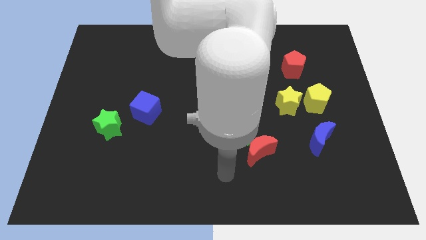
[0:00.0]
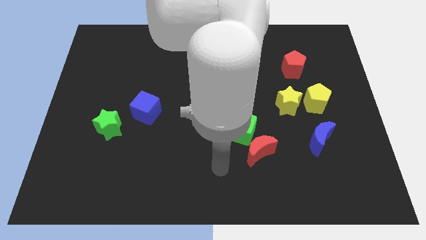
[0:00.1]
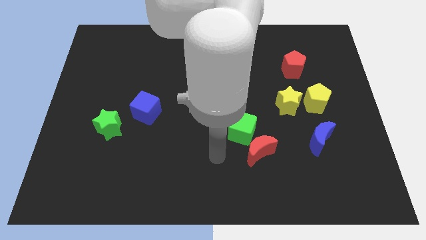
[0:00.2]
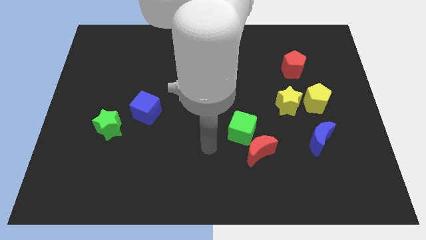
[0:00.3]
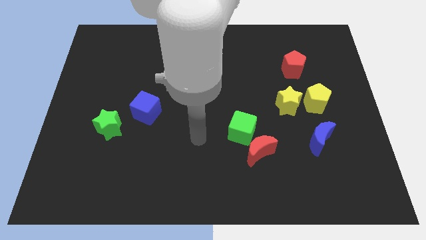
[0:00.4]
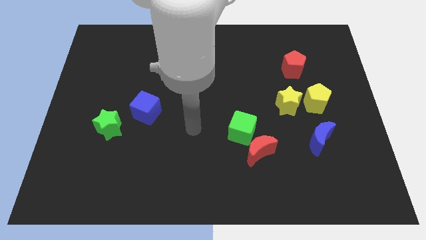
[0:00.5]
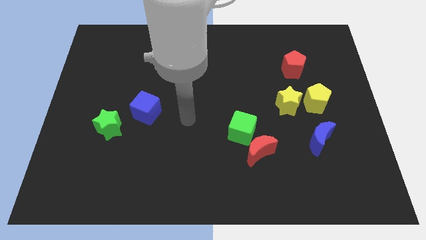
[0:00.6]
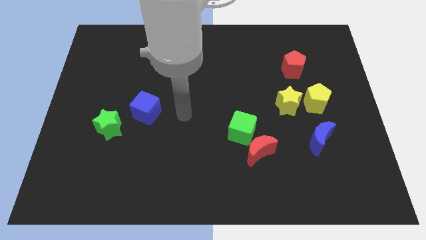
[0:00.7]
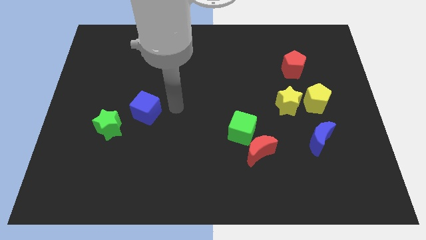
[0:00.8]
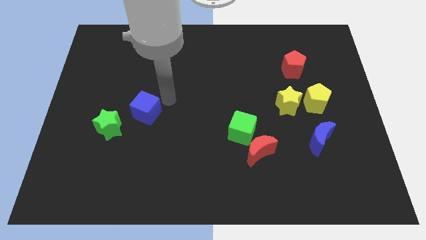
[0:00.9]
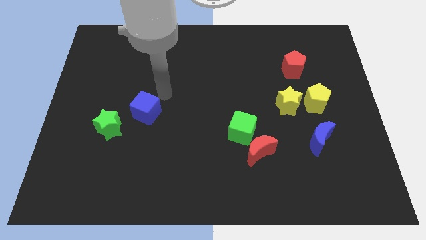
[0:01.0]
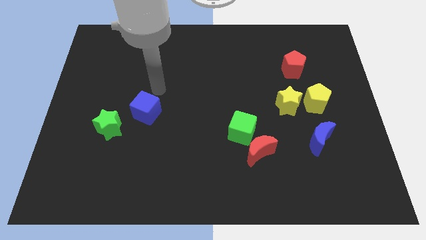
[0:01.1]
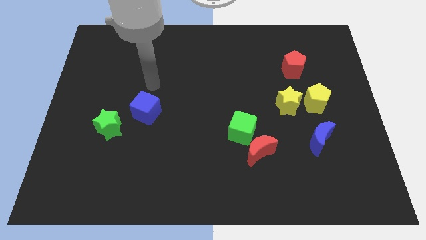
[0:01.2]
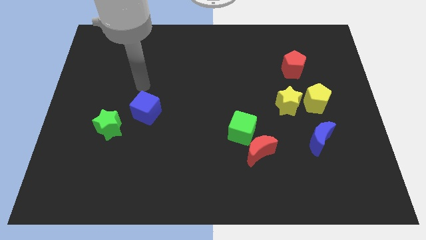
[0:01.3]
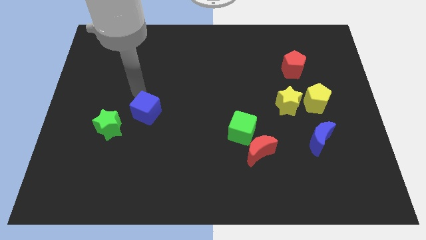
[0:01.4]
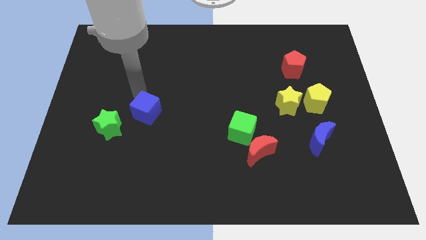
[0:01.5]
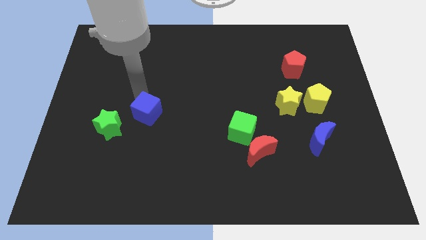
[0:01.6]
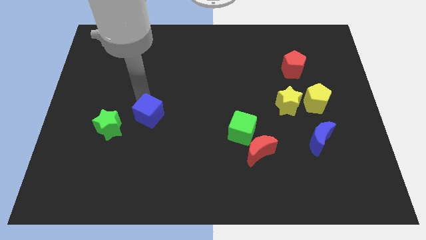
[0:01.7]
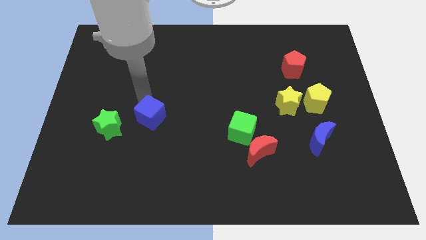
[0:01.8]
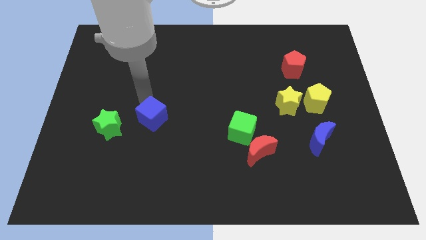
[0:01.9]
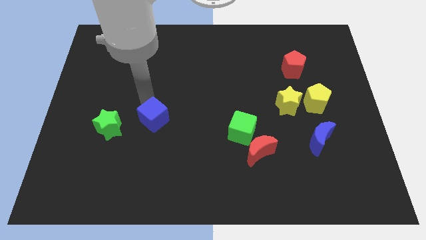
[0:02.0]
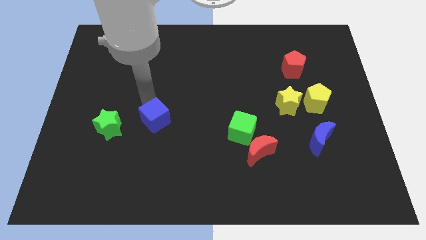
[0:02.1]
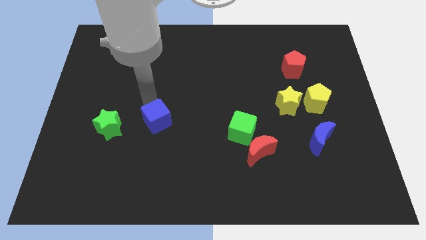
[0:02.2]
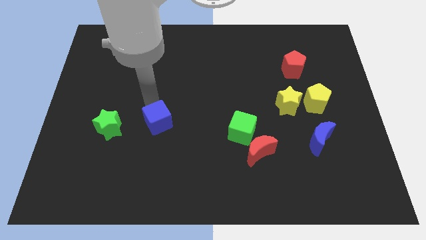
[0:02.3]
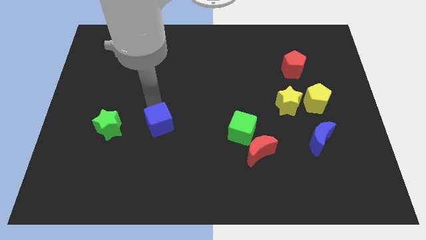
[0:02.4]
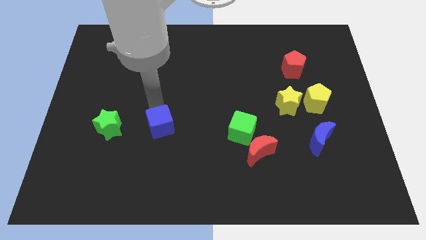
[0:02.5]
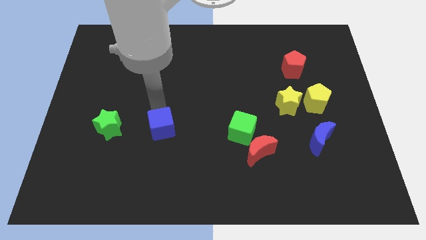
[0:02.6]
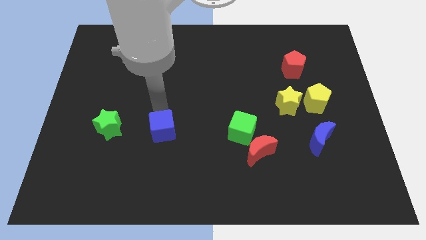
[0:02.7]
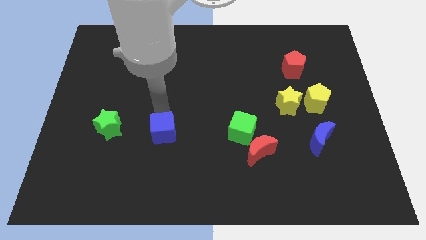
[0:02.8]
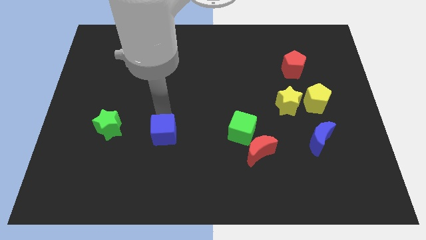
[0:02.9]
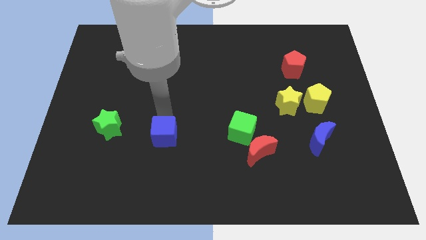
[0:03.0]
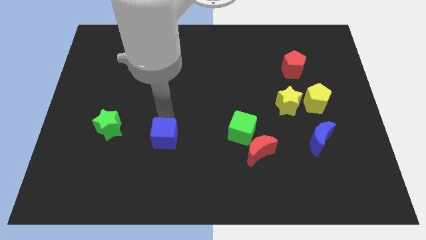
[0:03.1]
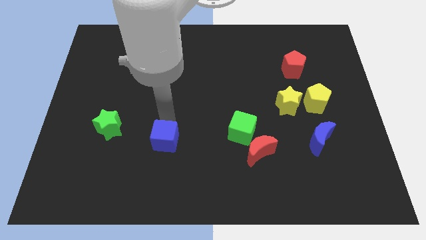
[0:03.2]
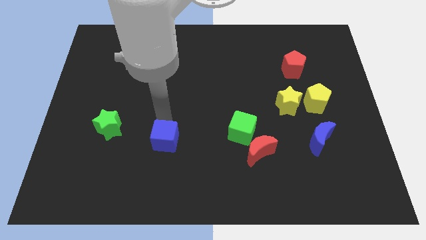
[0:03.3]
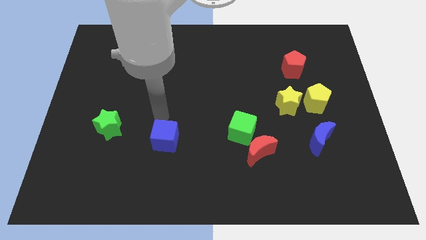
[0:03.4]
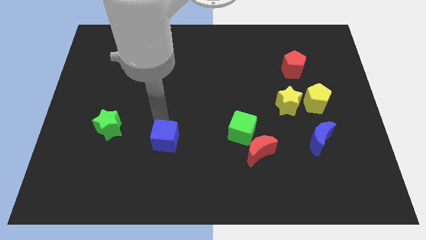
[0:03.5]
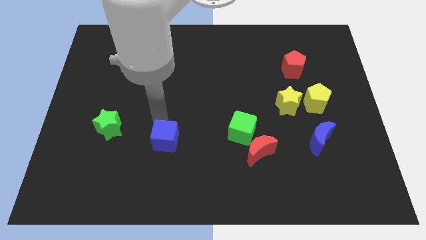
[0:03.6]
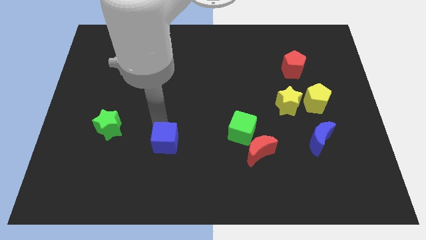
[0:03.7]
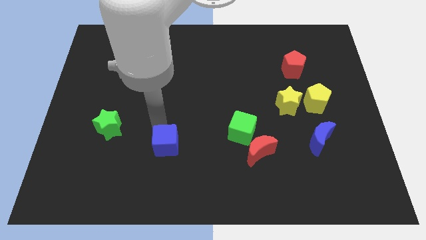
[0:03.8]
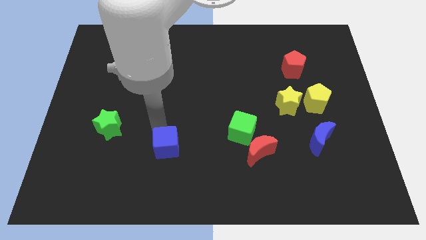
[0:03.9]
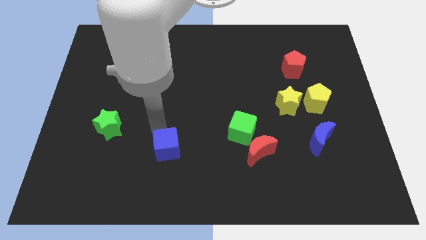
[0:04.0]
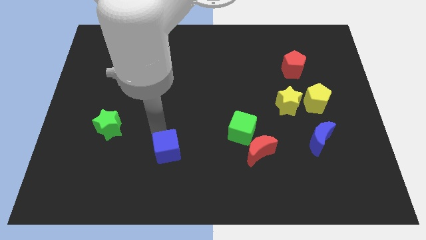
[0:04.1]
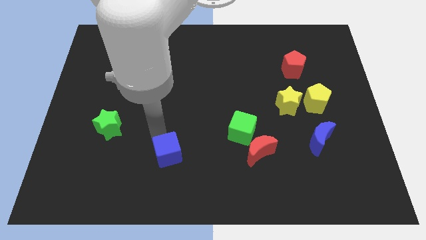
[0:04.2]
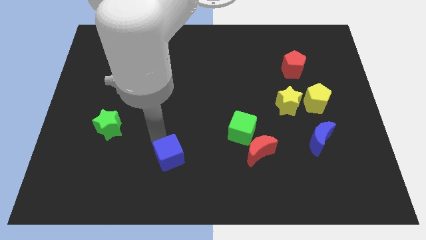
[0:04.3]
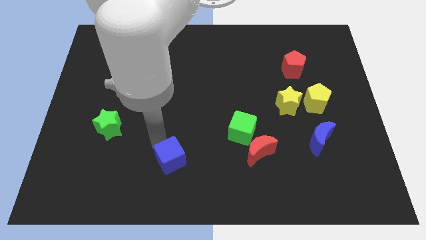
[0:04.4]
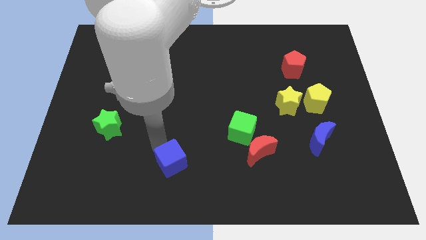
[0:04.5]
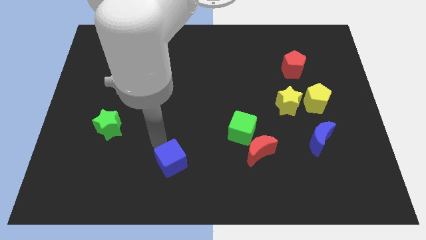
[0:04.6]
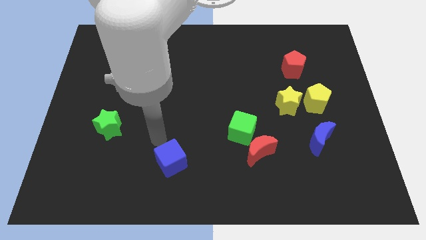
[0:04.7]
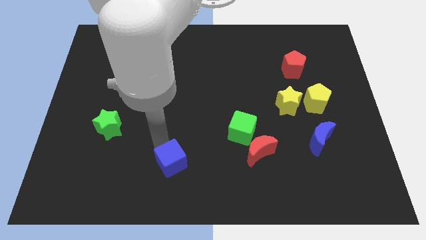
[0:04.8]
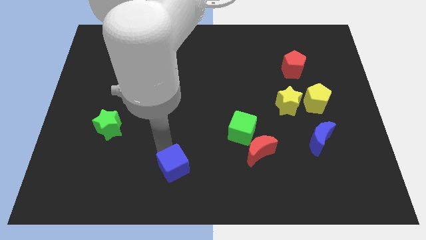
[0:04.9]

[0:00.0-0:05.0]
move the blue cube to the bottom side

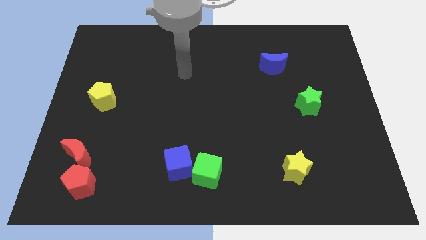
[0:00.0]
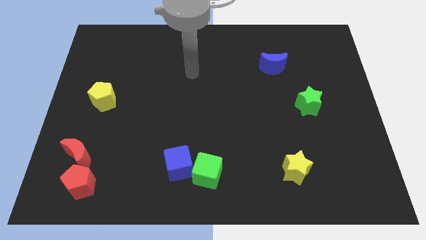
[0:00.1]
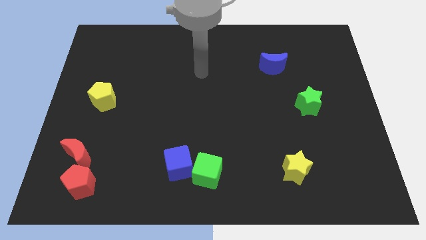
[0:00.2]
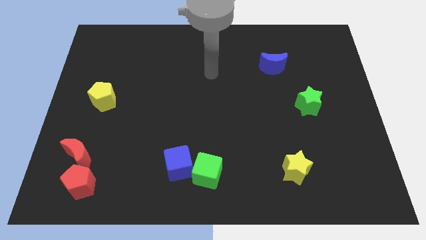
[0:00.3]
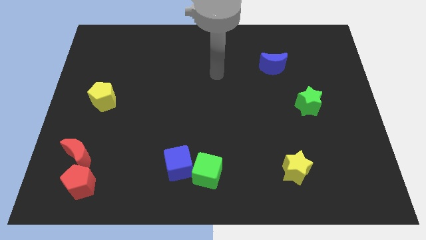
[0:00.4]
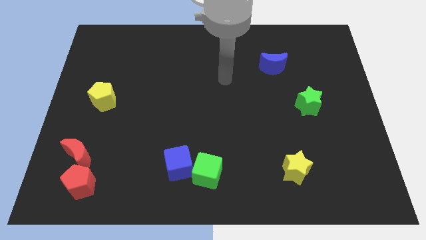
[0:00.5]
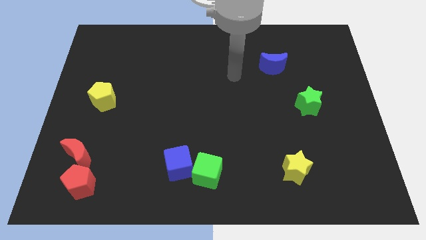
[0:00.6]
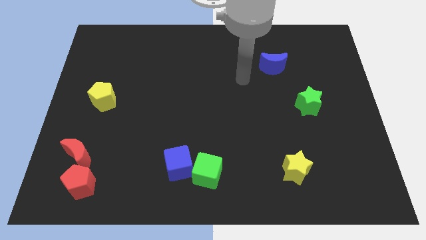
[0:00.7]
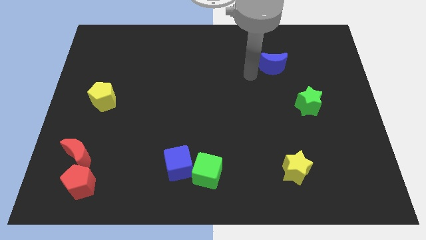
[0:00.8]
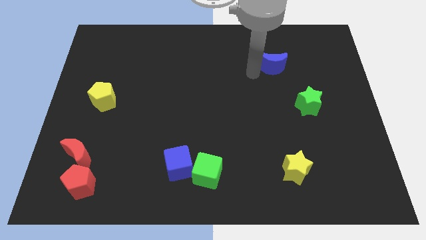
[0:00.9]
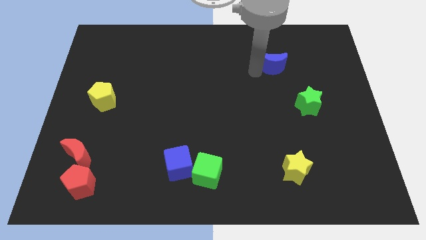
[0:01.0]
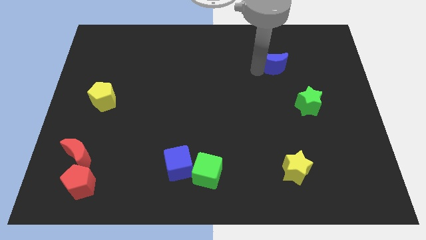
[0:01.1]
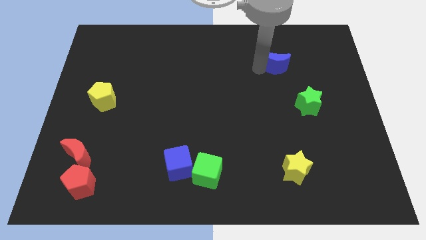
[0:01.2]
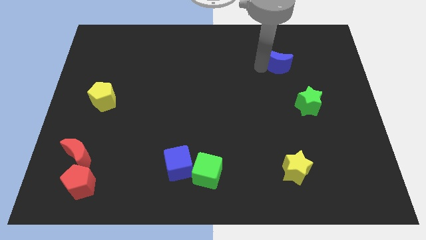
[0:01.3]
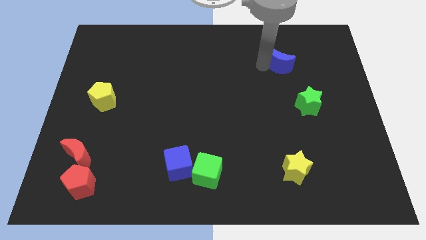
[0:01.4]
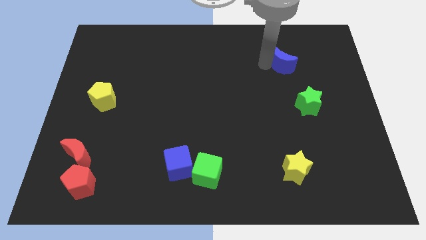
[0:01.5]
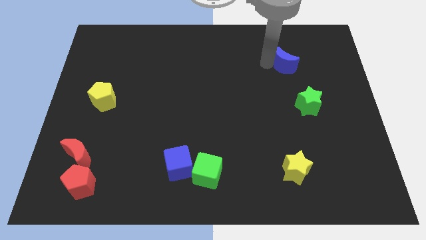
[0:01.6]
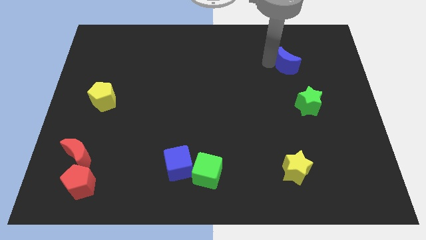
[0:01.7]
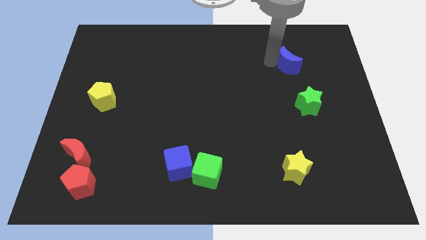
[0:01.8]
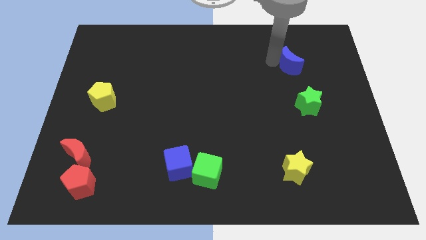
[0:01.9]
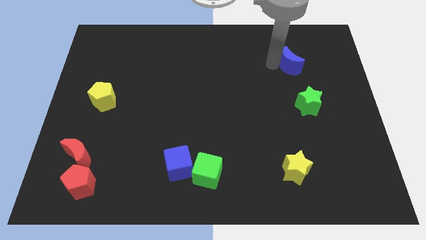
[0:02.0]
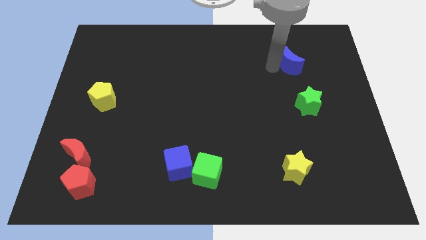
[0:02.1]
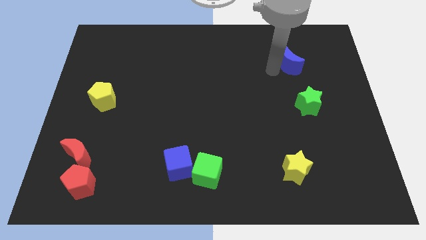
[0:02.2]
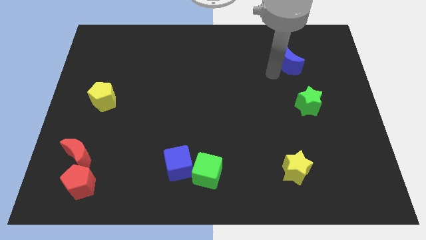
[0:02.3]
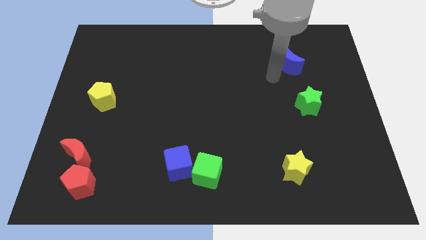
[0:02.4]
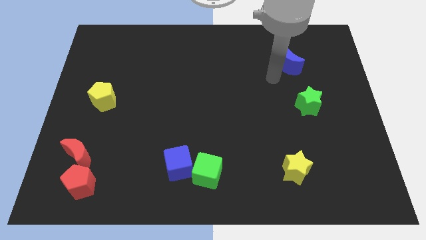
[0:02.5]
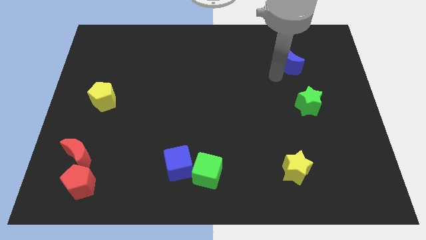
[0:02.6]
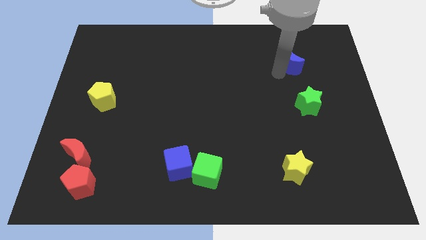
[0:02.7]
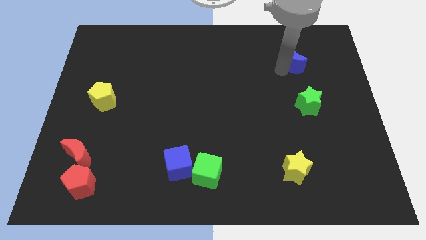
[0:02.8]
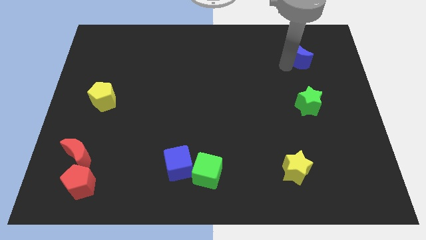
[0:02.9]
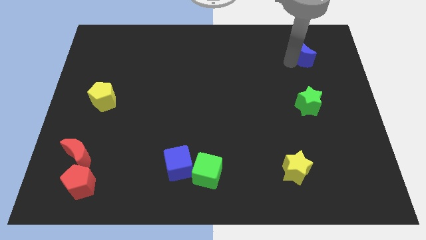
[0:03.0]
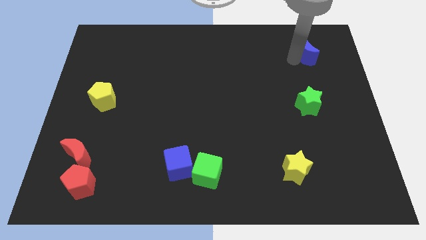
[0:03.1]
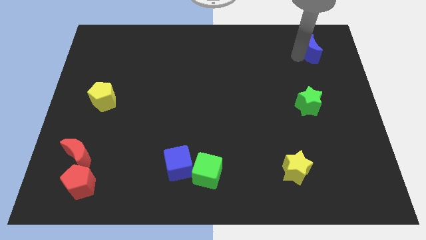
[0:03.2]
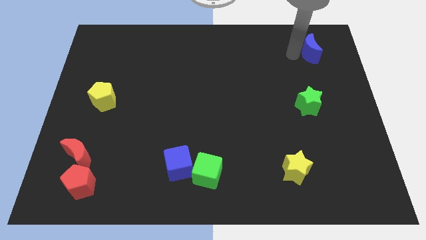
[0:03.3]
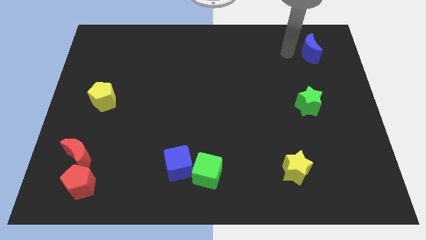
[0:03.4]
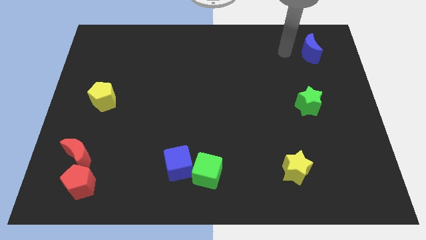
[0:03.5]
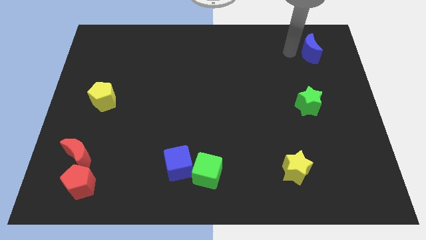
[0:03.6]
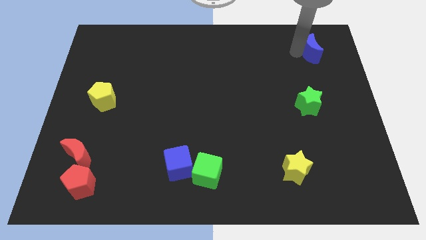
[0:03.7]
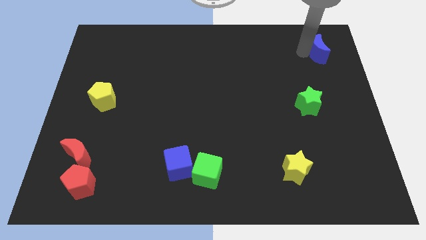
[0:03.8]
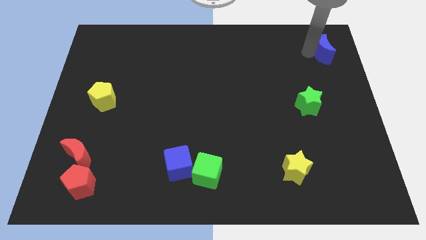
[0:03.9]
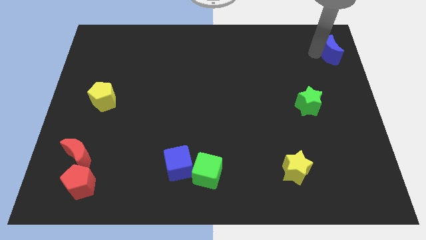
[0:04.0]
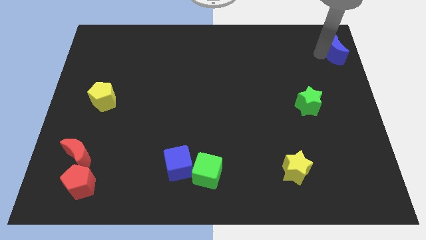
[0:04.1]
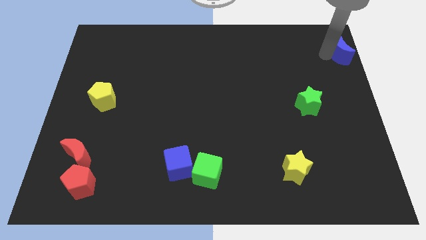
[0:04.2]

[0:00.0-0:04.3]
put the blue moon to the upper right corner
